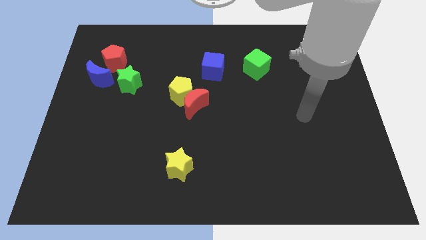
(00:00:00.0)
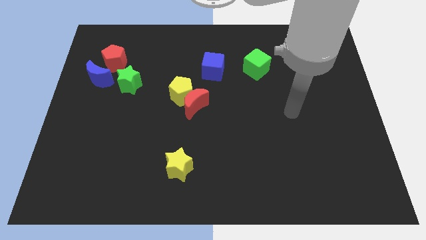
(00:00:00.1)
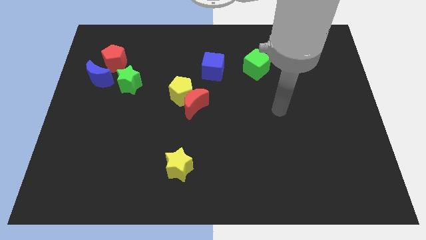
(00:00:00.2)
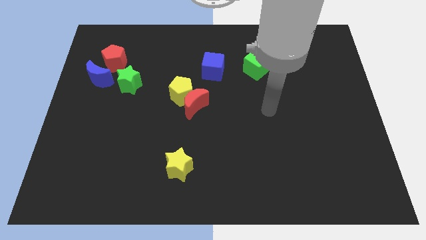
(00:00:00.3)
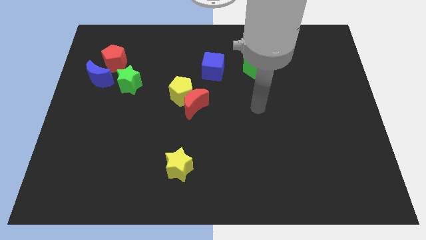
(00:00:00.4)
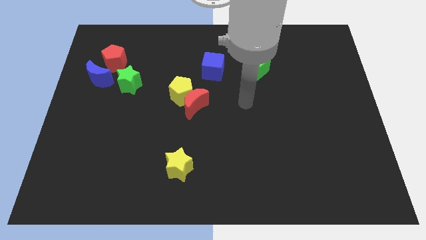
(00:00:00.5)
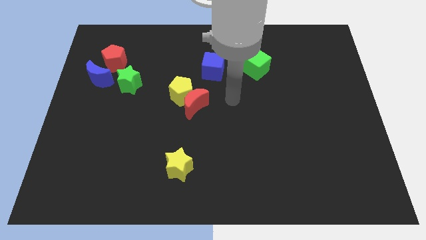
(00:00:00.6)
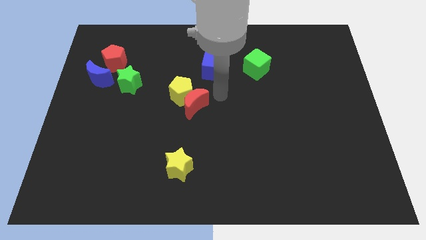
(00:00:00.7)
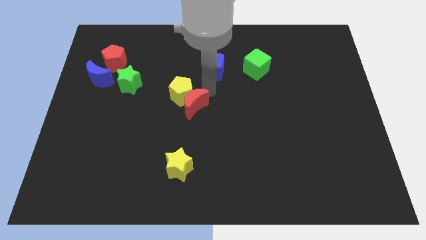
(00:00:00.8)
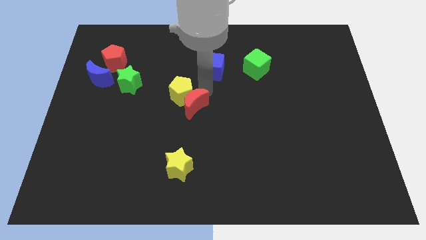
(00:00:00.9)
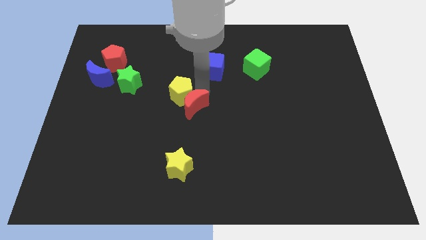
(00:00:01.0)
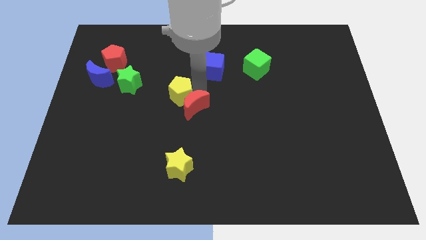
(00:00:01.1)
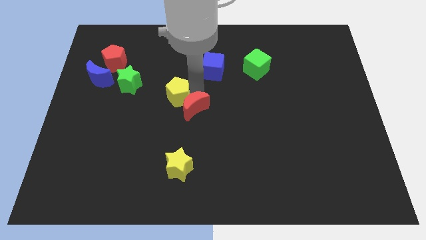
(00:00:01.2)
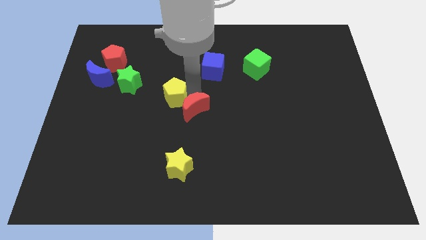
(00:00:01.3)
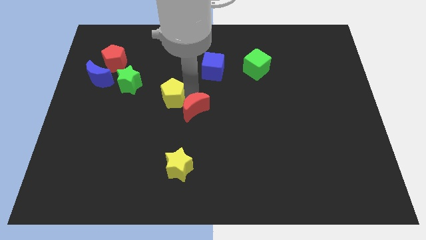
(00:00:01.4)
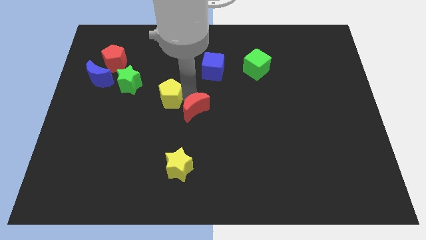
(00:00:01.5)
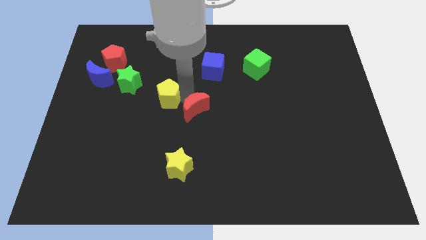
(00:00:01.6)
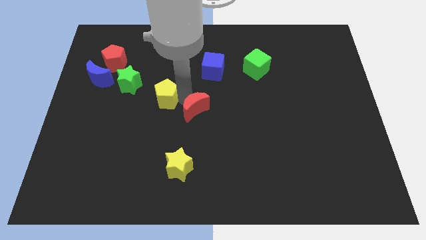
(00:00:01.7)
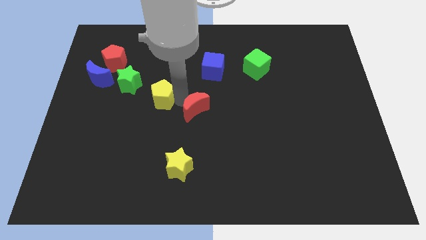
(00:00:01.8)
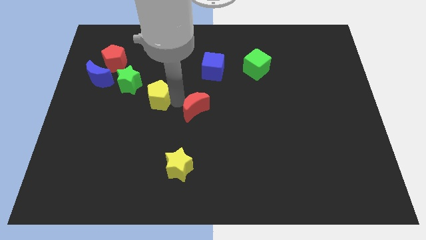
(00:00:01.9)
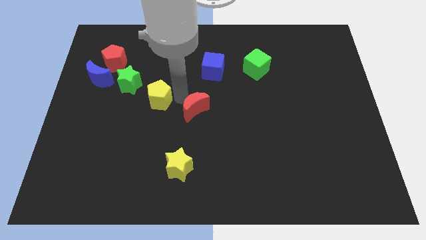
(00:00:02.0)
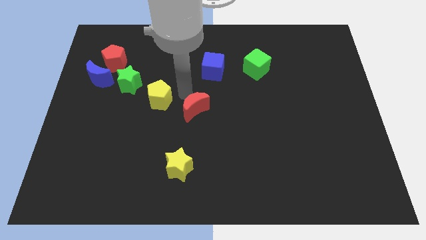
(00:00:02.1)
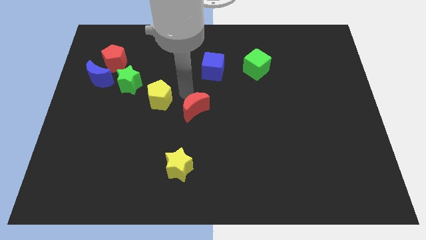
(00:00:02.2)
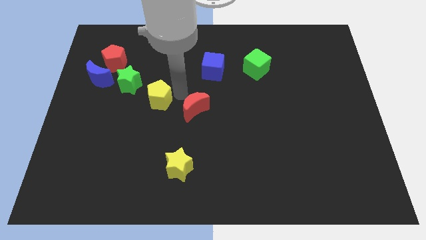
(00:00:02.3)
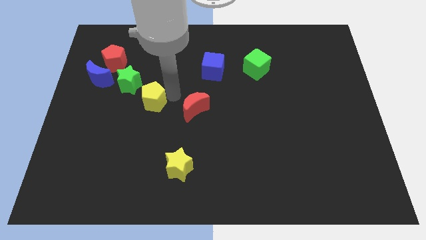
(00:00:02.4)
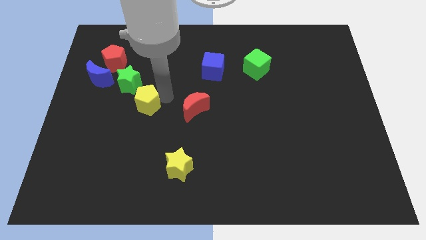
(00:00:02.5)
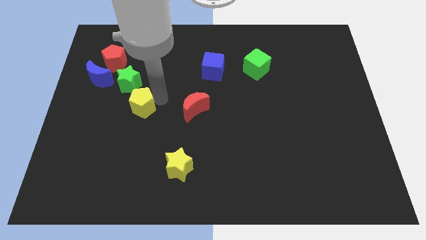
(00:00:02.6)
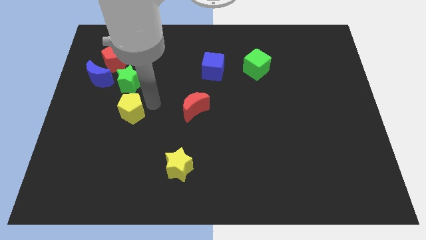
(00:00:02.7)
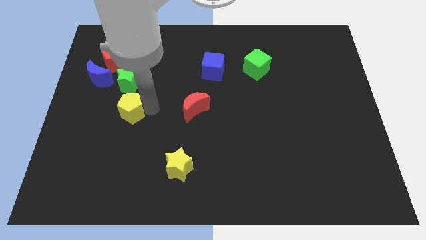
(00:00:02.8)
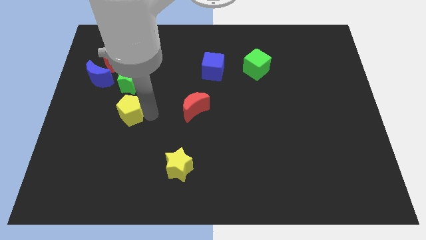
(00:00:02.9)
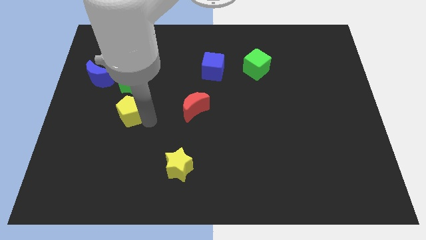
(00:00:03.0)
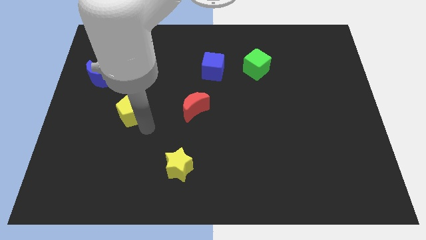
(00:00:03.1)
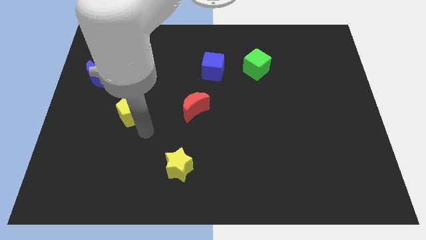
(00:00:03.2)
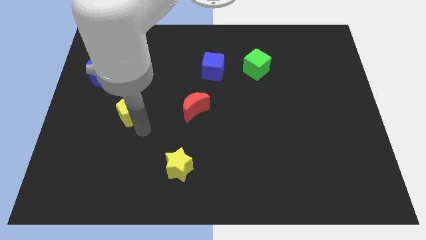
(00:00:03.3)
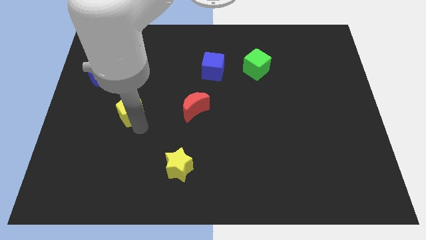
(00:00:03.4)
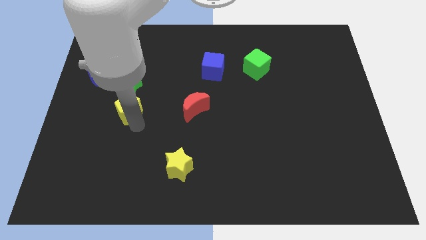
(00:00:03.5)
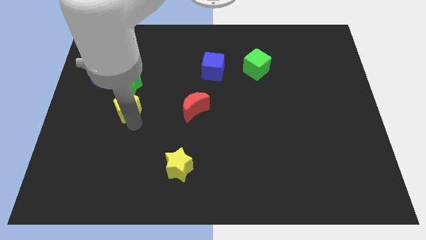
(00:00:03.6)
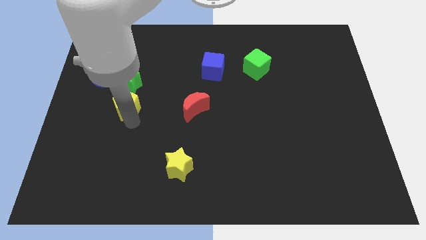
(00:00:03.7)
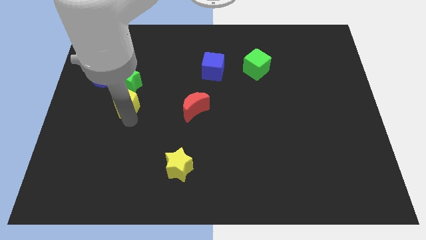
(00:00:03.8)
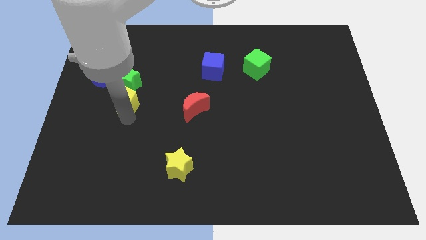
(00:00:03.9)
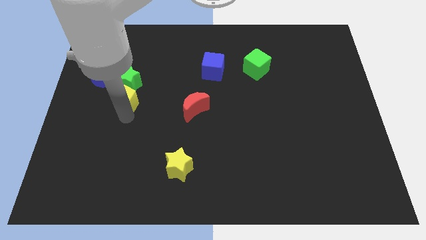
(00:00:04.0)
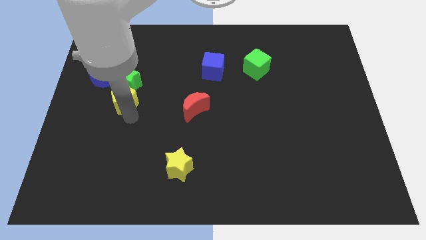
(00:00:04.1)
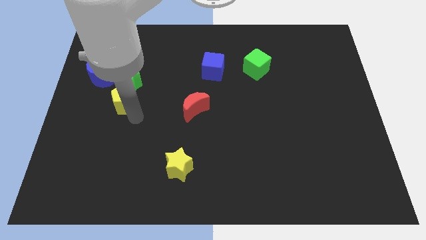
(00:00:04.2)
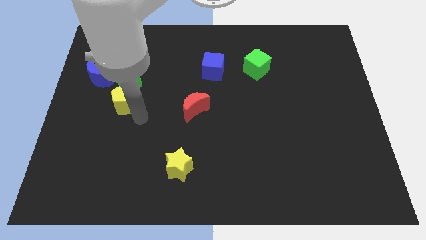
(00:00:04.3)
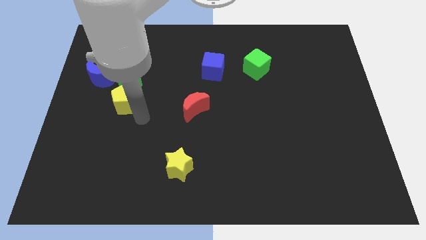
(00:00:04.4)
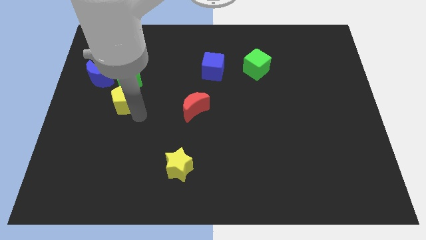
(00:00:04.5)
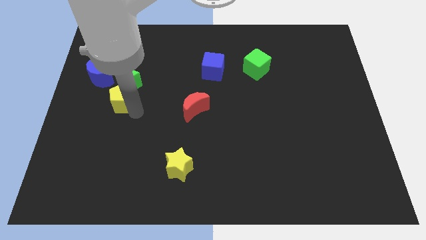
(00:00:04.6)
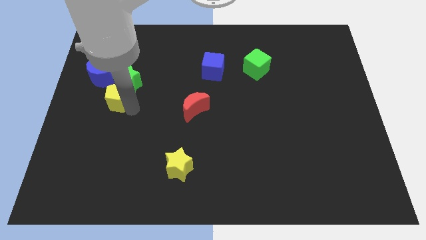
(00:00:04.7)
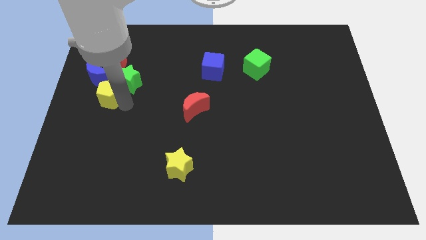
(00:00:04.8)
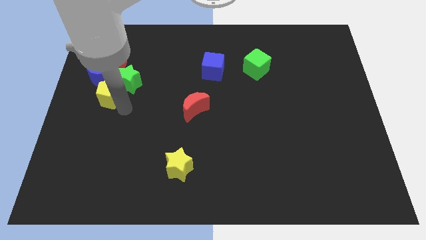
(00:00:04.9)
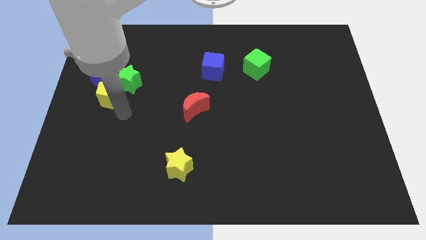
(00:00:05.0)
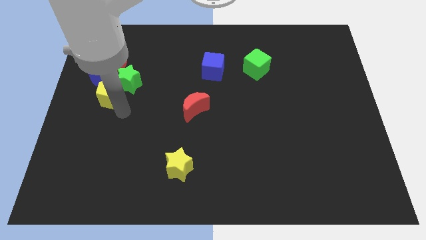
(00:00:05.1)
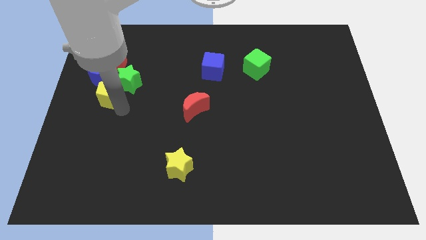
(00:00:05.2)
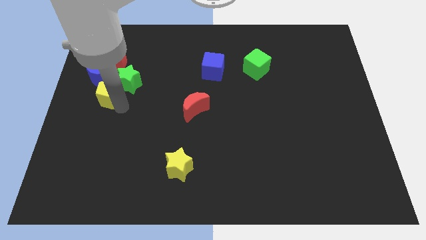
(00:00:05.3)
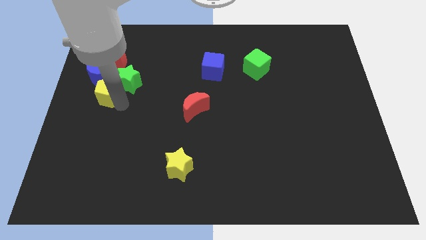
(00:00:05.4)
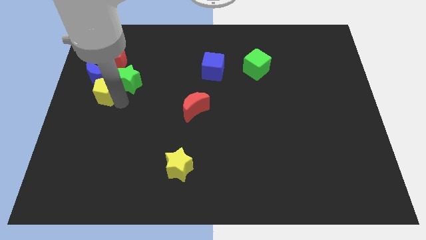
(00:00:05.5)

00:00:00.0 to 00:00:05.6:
push the yellow pentagon close to the blue moon

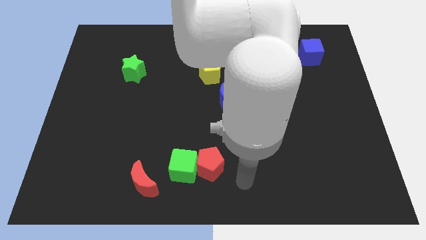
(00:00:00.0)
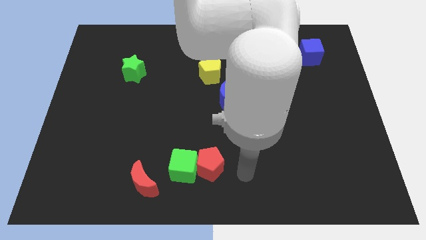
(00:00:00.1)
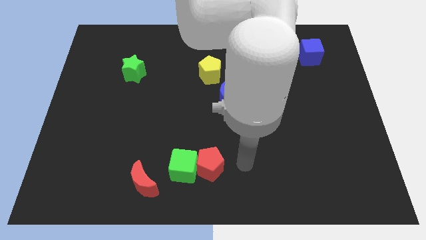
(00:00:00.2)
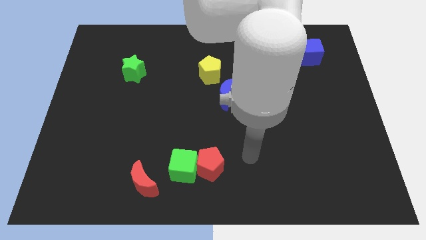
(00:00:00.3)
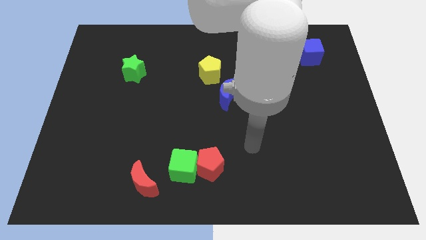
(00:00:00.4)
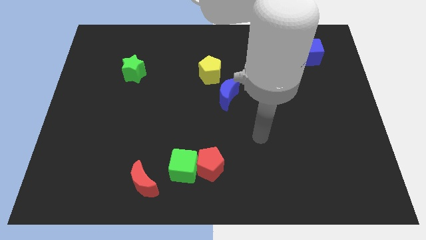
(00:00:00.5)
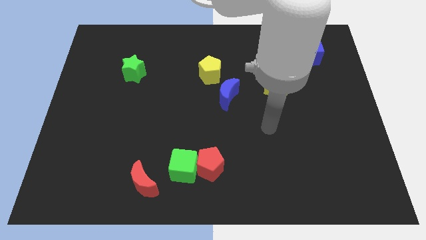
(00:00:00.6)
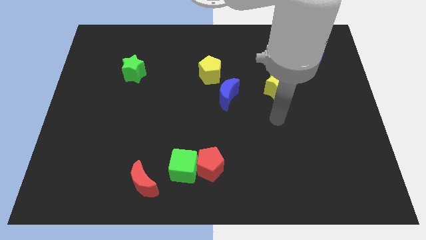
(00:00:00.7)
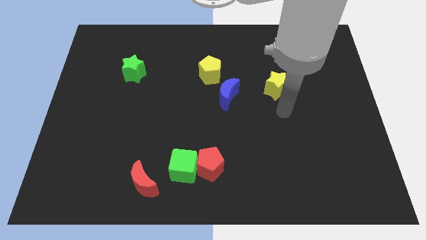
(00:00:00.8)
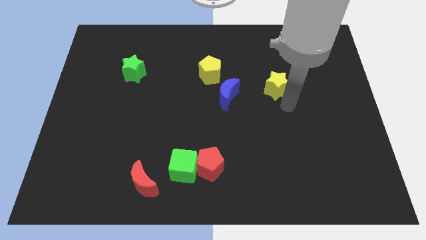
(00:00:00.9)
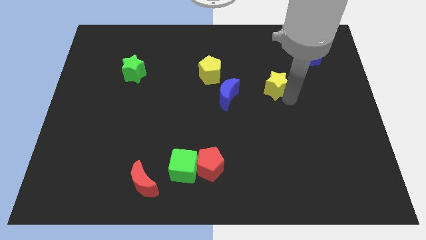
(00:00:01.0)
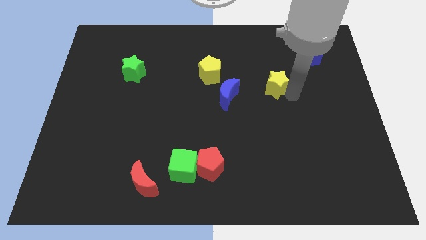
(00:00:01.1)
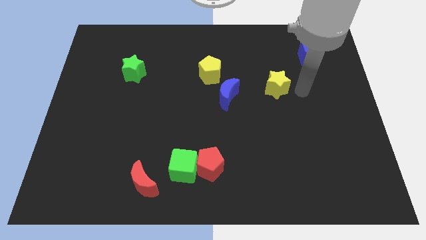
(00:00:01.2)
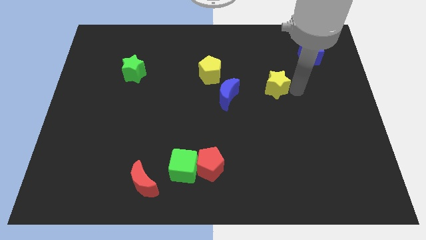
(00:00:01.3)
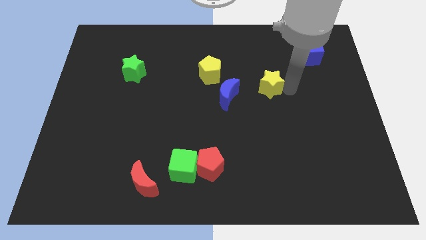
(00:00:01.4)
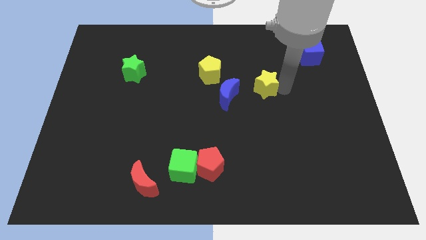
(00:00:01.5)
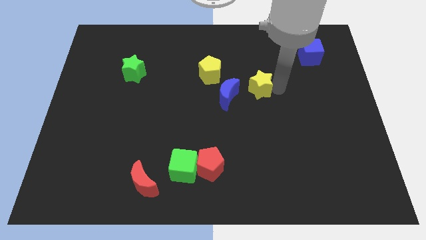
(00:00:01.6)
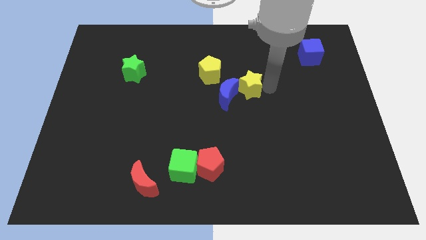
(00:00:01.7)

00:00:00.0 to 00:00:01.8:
move the yellow star next to the blue moon
